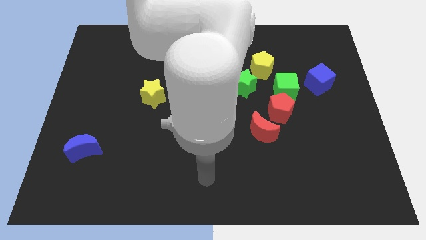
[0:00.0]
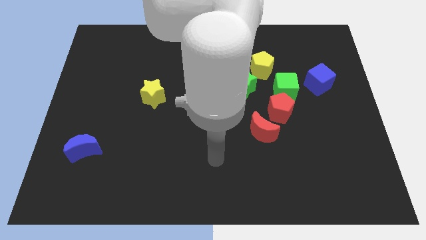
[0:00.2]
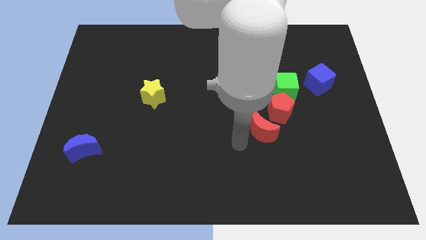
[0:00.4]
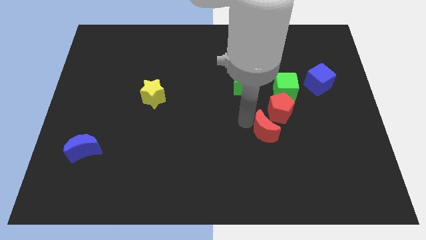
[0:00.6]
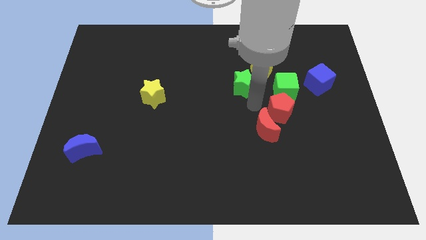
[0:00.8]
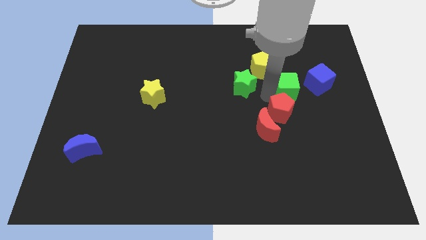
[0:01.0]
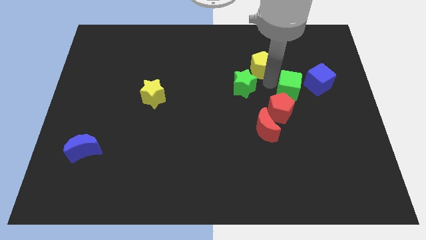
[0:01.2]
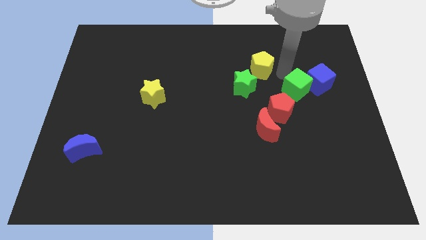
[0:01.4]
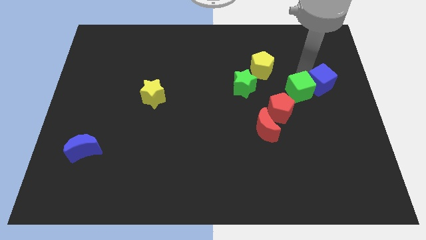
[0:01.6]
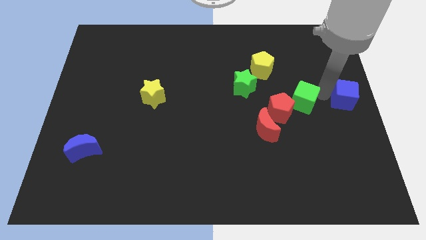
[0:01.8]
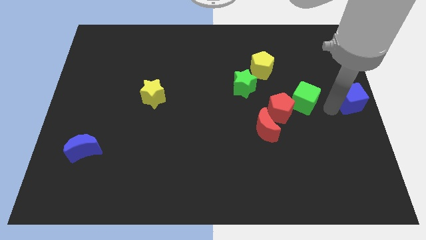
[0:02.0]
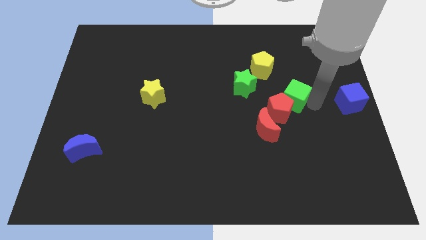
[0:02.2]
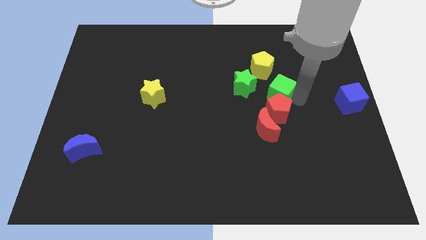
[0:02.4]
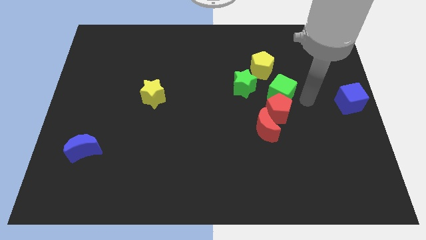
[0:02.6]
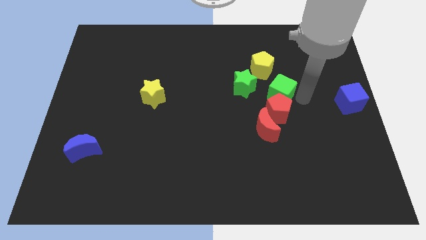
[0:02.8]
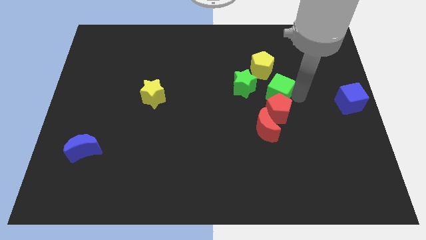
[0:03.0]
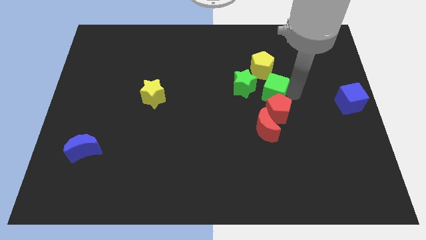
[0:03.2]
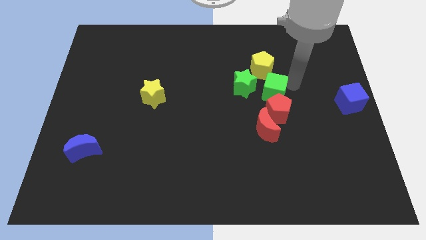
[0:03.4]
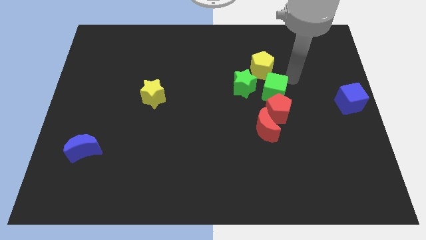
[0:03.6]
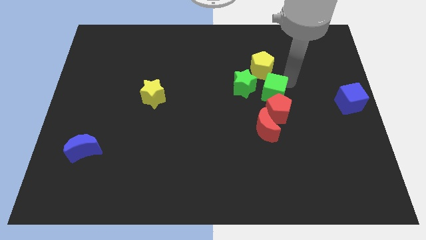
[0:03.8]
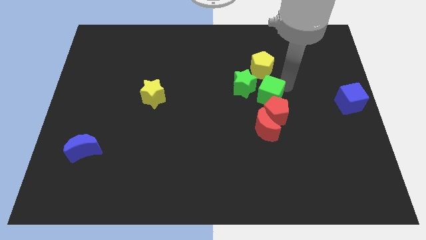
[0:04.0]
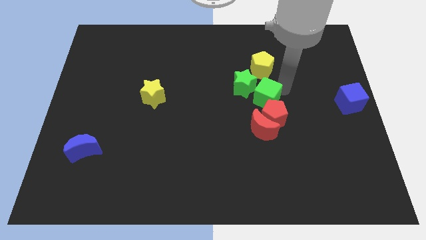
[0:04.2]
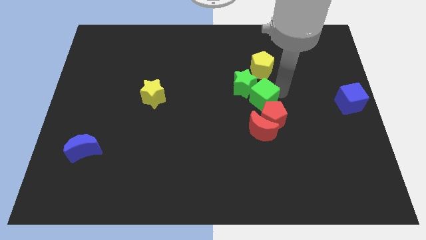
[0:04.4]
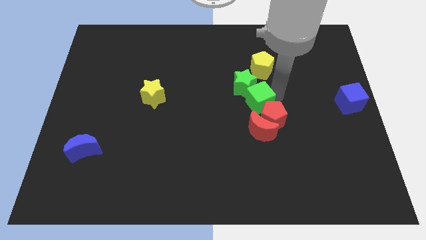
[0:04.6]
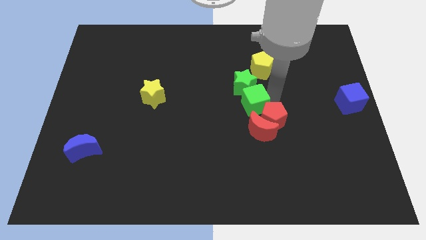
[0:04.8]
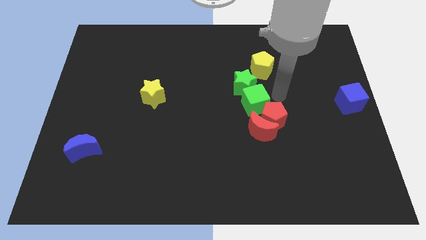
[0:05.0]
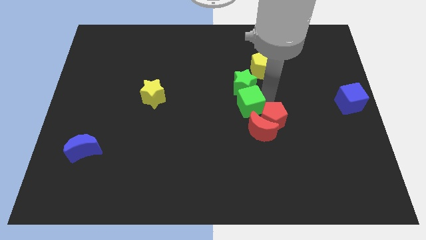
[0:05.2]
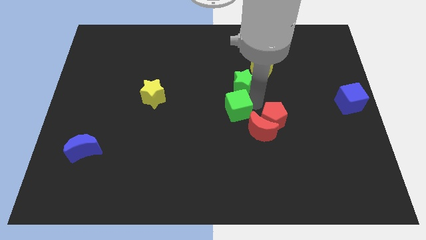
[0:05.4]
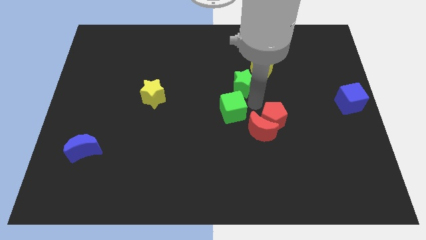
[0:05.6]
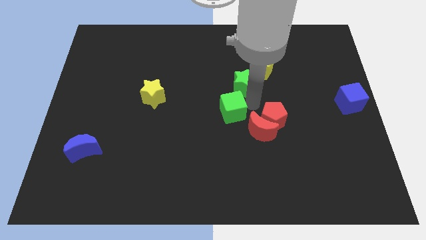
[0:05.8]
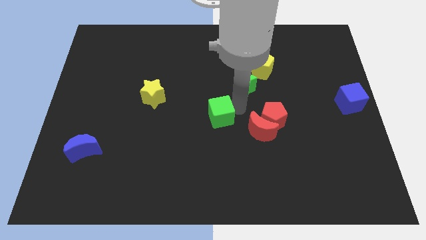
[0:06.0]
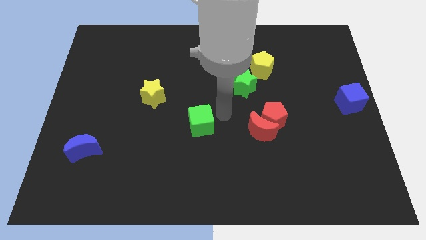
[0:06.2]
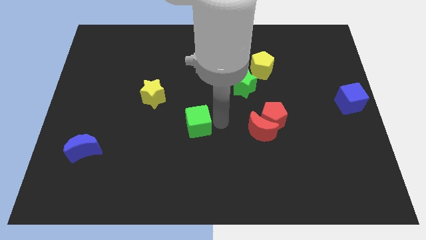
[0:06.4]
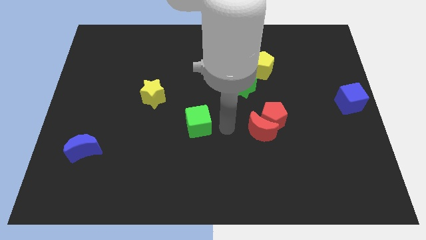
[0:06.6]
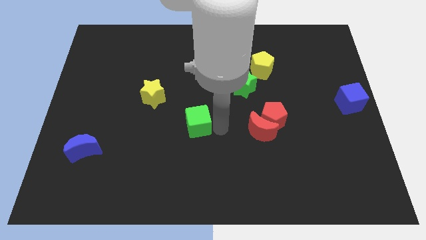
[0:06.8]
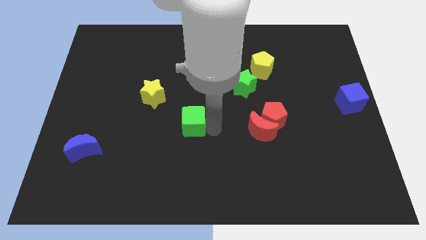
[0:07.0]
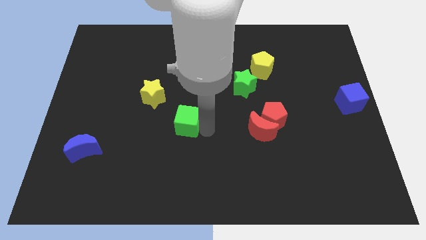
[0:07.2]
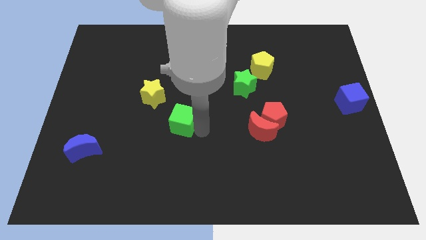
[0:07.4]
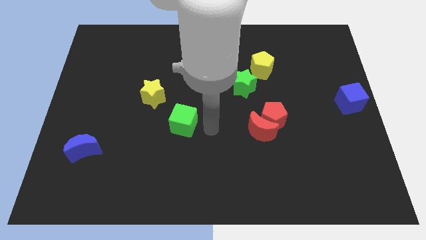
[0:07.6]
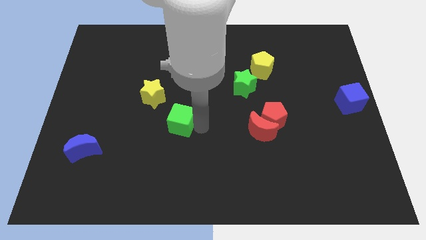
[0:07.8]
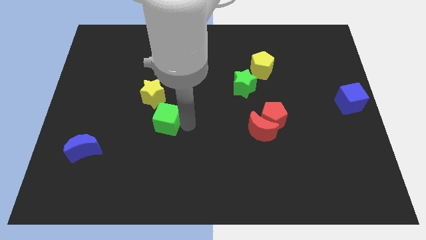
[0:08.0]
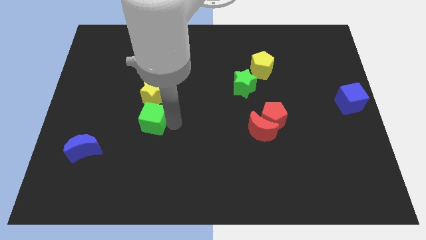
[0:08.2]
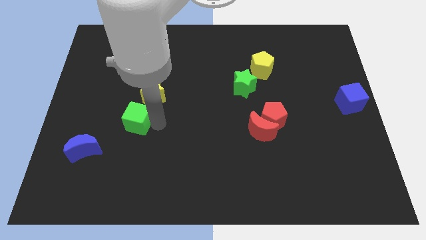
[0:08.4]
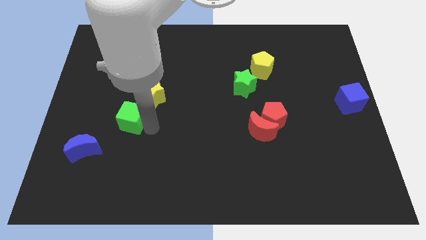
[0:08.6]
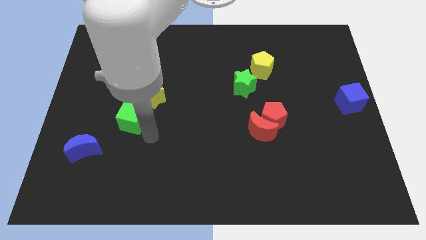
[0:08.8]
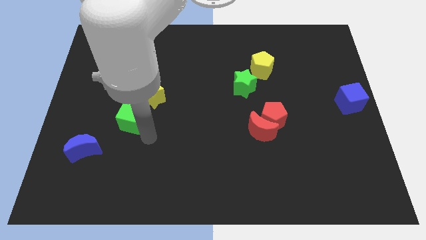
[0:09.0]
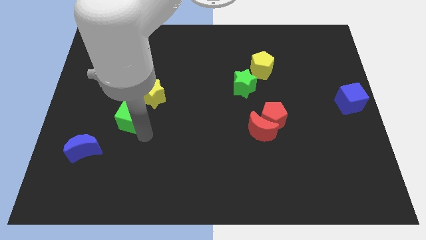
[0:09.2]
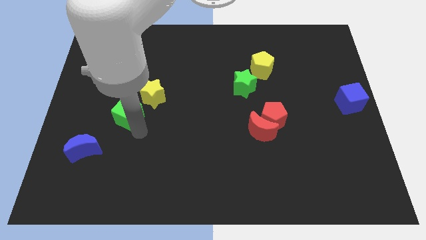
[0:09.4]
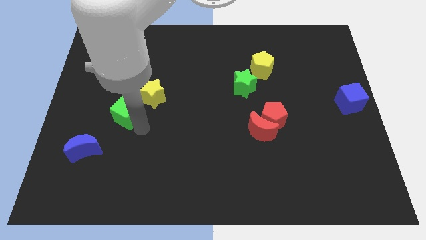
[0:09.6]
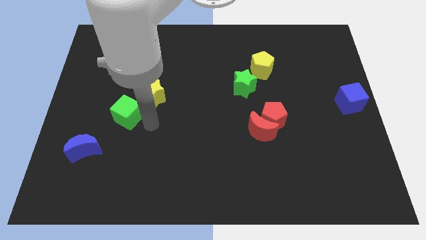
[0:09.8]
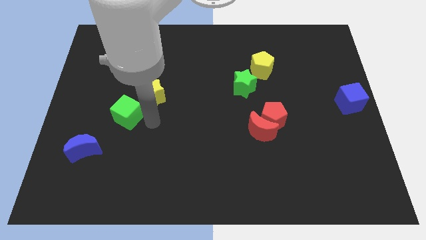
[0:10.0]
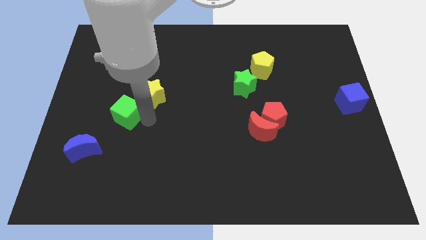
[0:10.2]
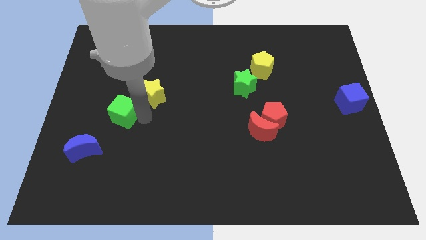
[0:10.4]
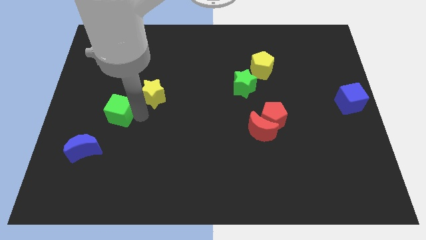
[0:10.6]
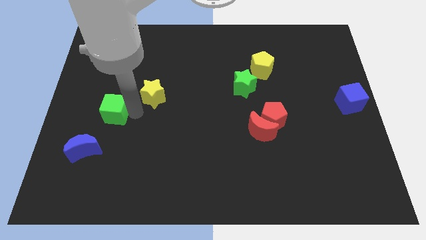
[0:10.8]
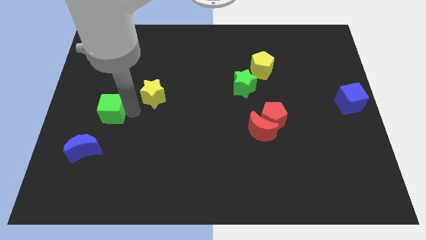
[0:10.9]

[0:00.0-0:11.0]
move the green cube to the top of the blue moon

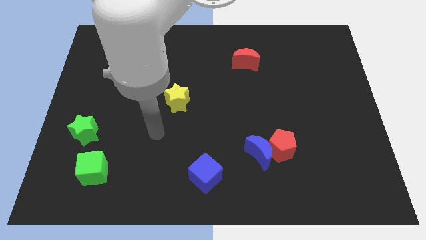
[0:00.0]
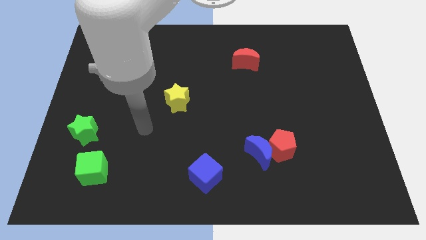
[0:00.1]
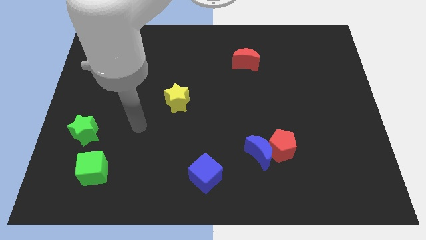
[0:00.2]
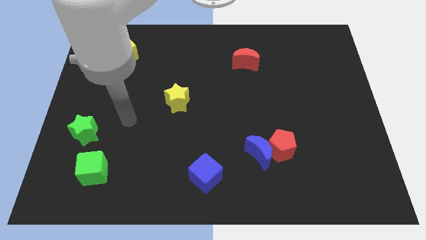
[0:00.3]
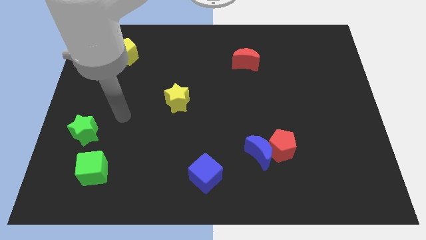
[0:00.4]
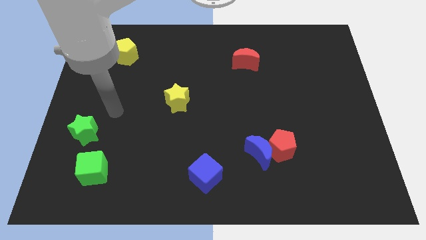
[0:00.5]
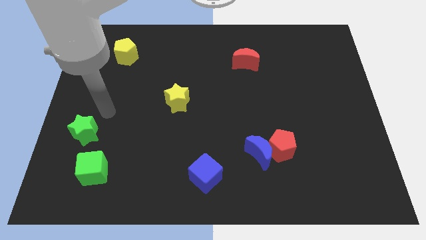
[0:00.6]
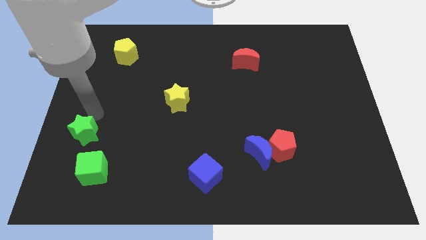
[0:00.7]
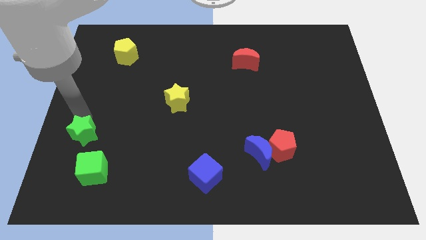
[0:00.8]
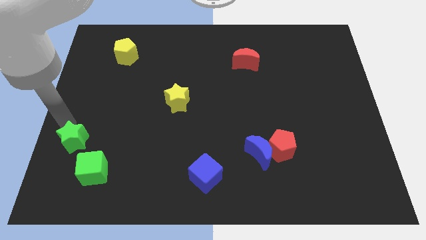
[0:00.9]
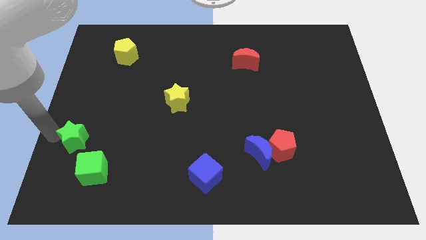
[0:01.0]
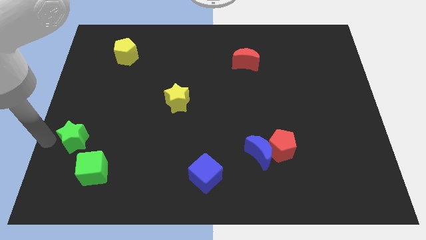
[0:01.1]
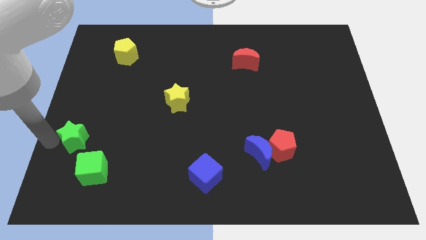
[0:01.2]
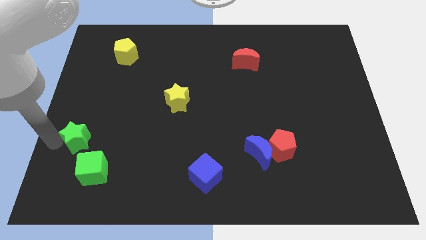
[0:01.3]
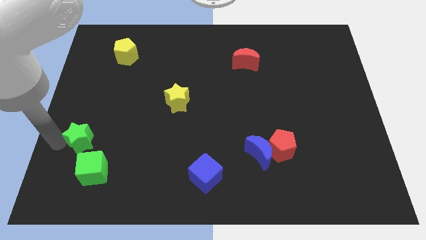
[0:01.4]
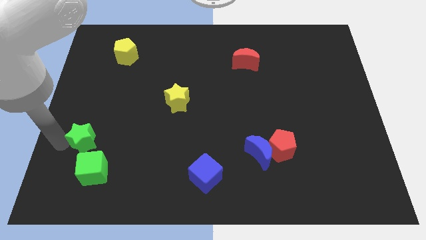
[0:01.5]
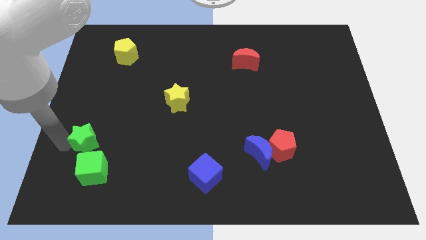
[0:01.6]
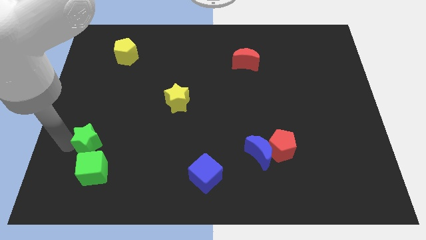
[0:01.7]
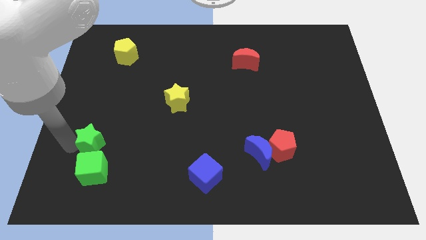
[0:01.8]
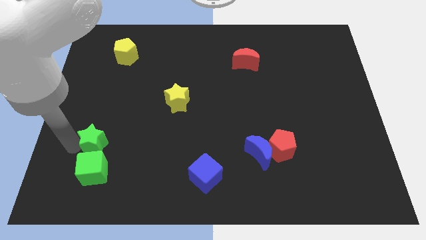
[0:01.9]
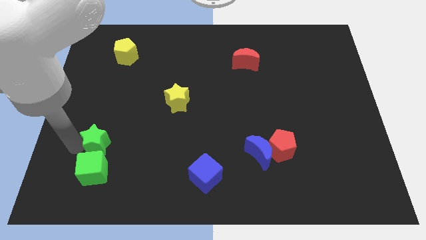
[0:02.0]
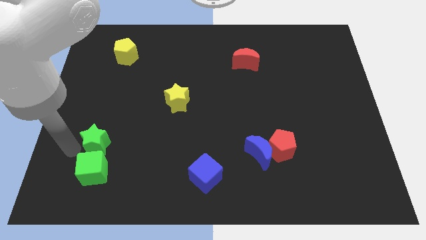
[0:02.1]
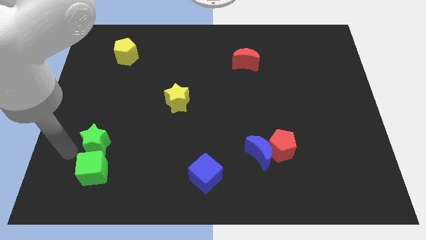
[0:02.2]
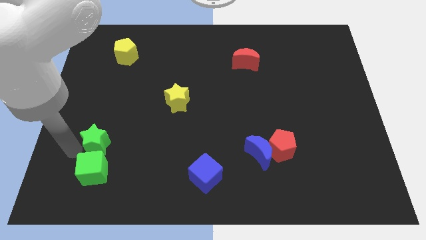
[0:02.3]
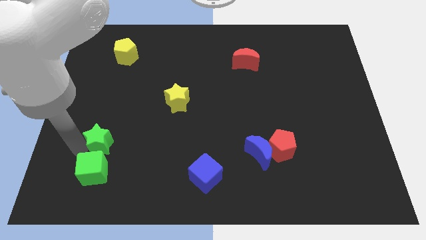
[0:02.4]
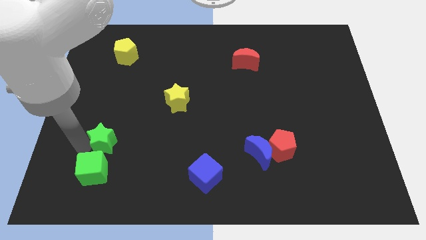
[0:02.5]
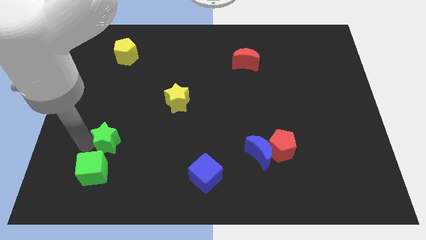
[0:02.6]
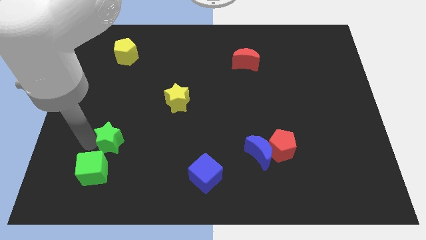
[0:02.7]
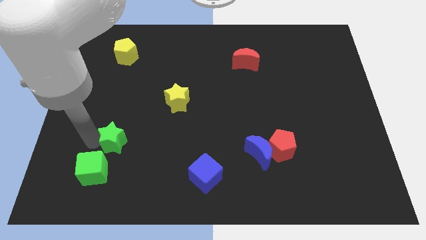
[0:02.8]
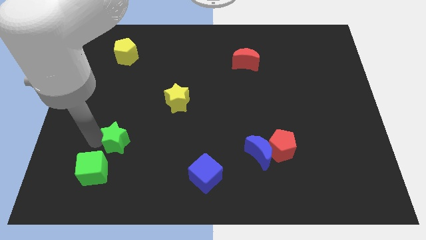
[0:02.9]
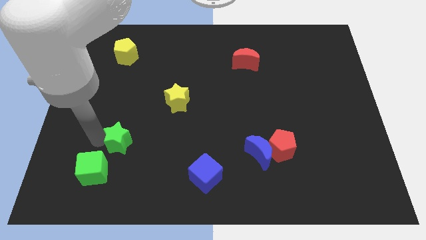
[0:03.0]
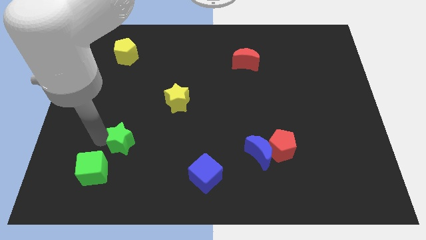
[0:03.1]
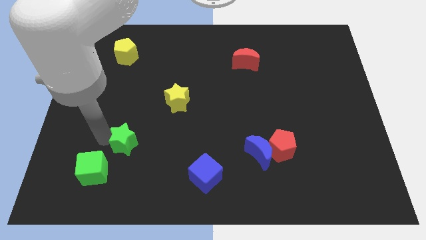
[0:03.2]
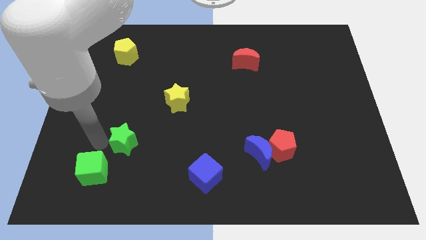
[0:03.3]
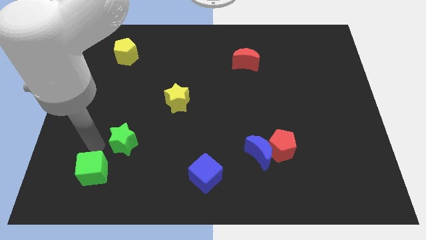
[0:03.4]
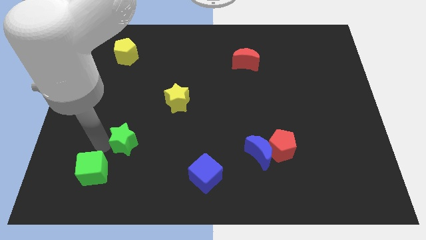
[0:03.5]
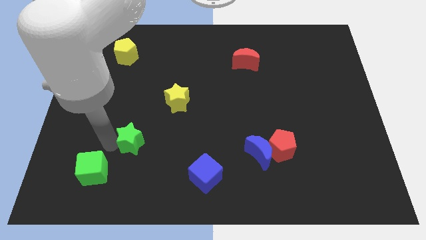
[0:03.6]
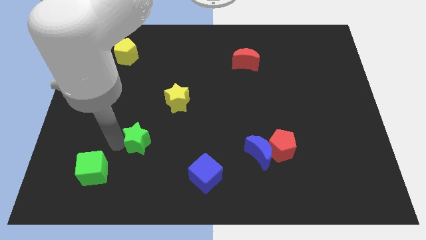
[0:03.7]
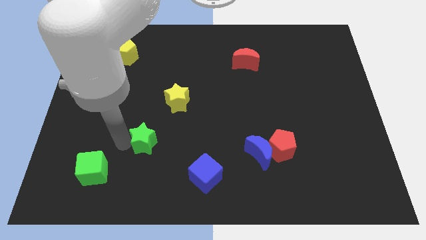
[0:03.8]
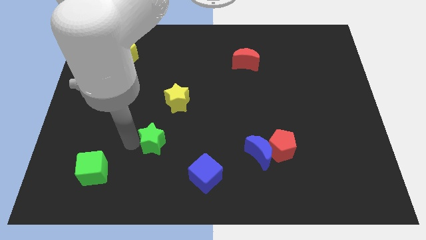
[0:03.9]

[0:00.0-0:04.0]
slide the green star to the bottom of the yellow star
